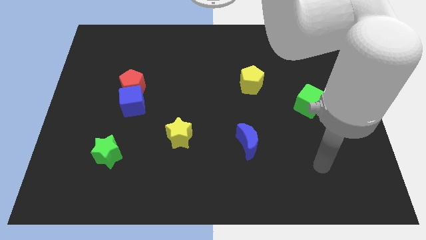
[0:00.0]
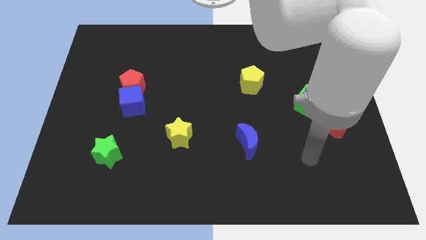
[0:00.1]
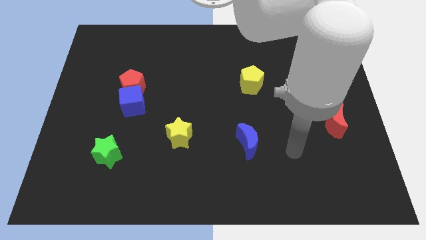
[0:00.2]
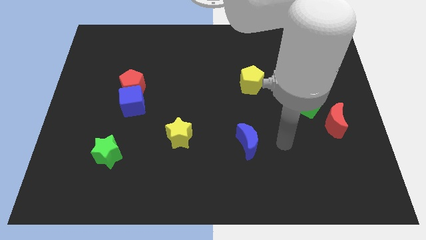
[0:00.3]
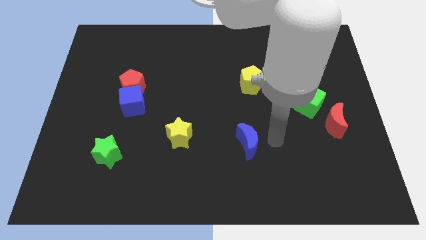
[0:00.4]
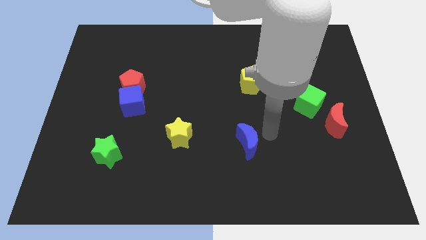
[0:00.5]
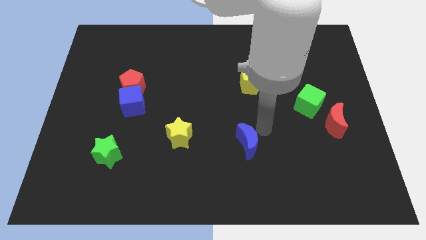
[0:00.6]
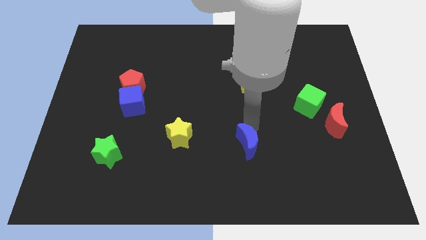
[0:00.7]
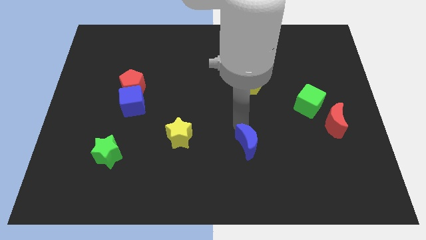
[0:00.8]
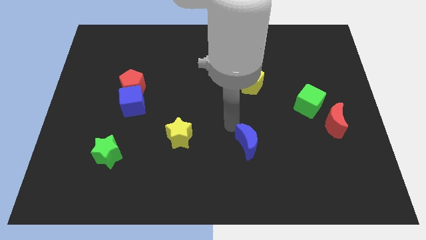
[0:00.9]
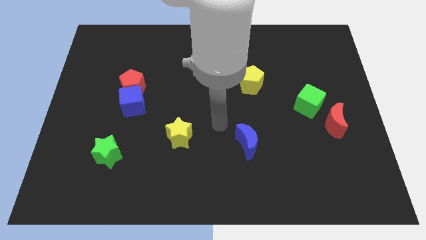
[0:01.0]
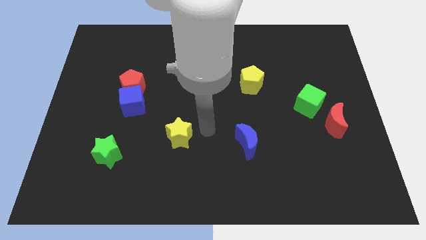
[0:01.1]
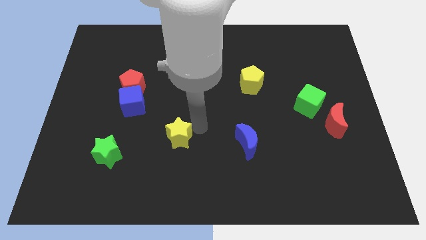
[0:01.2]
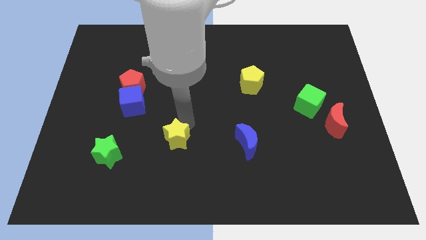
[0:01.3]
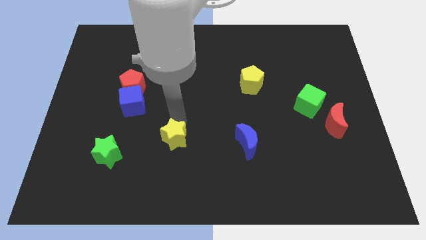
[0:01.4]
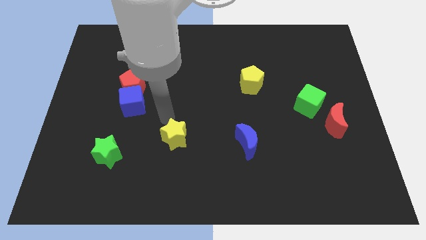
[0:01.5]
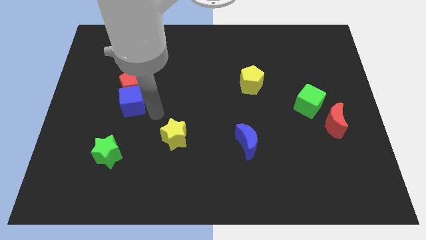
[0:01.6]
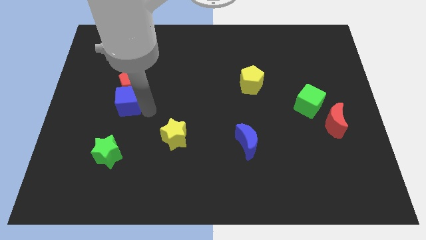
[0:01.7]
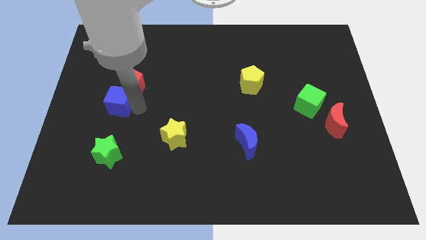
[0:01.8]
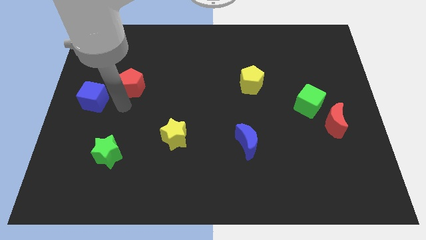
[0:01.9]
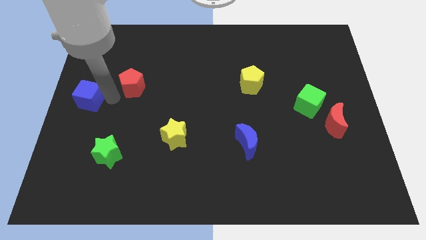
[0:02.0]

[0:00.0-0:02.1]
move the red pentagon away from the blue cube

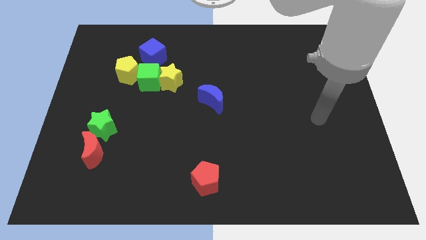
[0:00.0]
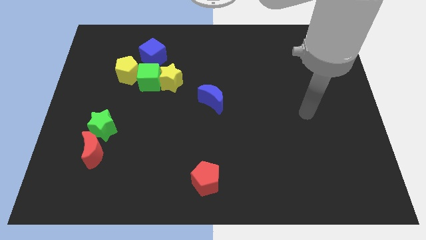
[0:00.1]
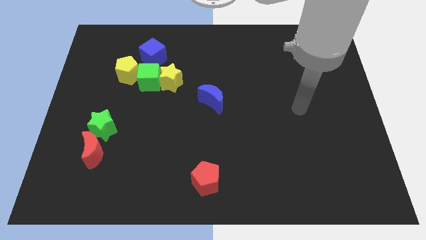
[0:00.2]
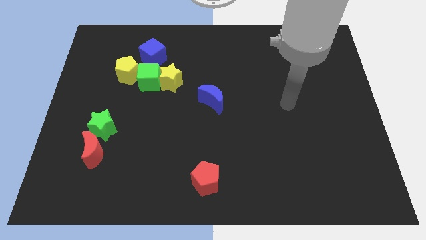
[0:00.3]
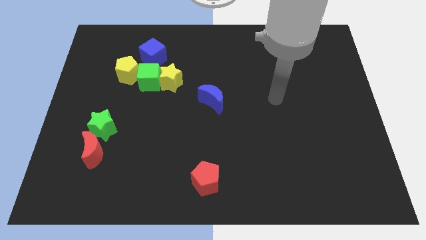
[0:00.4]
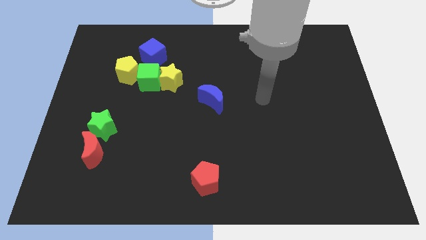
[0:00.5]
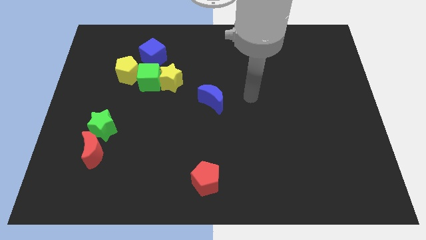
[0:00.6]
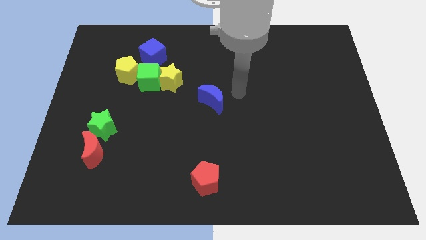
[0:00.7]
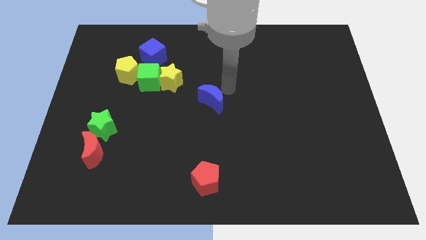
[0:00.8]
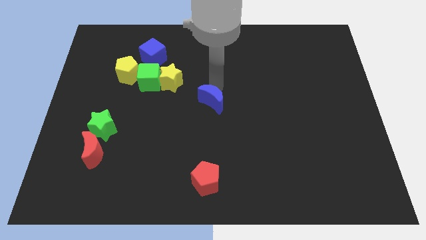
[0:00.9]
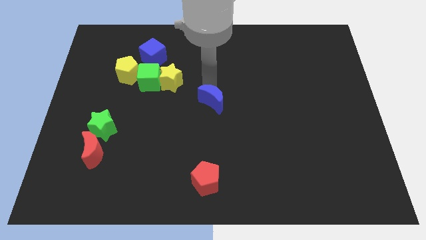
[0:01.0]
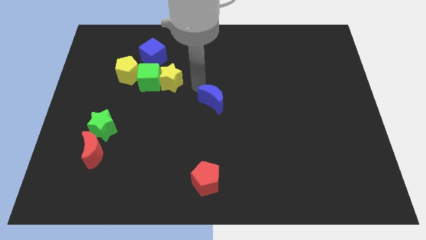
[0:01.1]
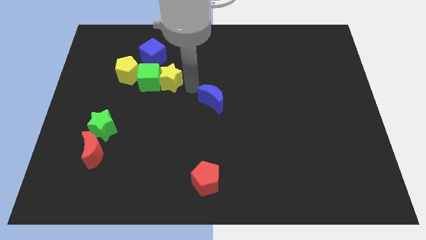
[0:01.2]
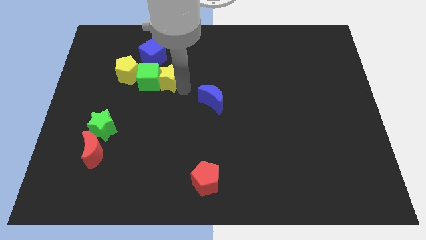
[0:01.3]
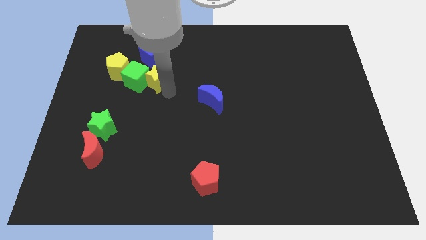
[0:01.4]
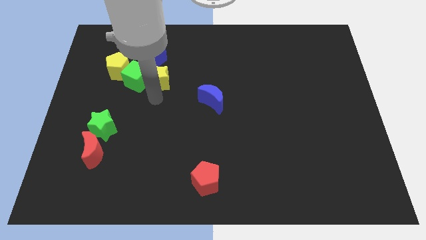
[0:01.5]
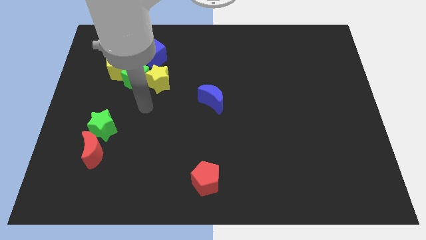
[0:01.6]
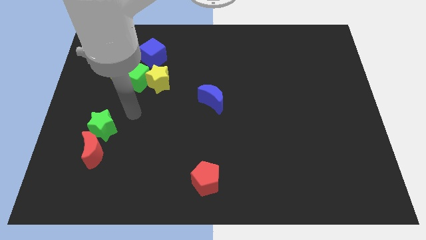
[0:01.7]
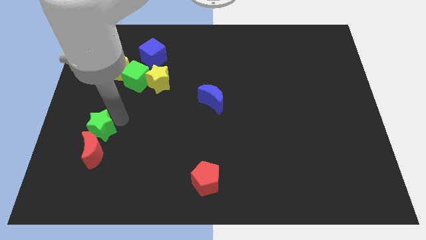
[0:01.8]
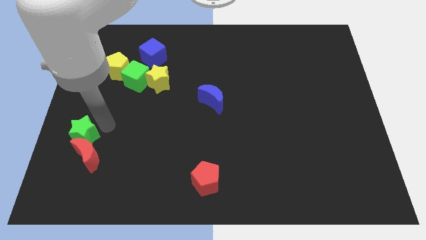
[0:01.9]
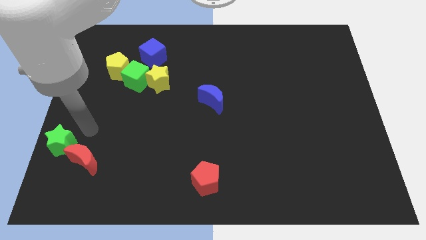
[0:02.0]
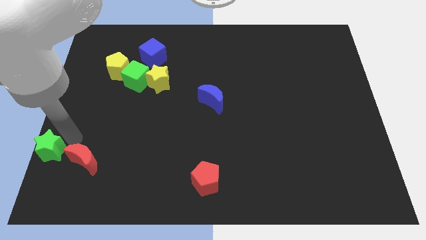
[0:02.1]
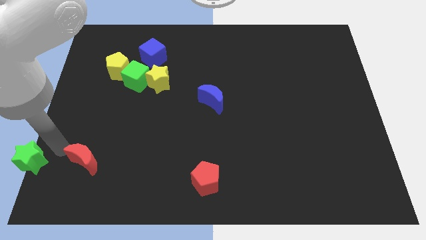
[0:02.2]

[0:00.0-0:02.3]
separate the red moon from the green star

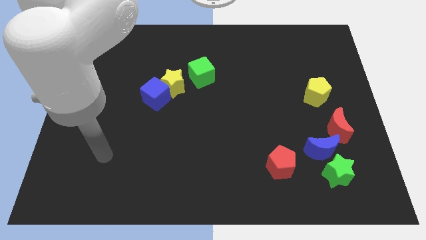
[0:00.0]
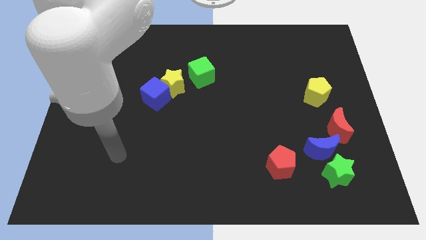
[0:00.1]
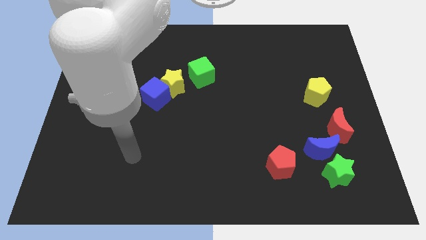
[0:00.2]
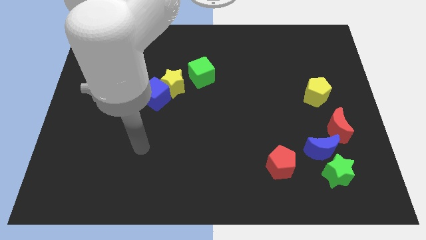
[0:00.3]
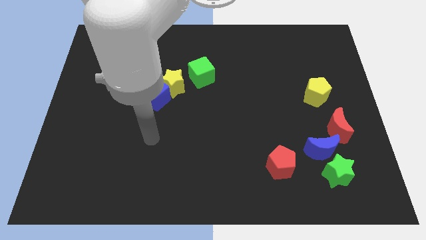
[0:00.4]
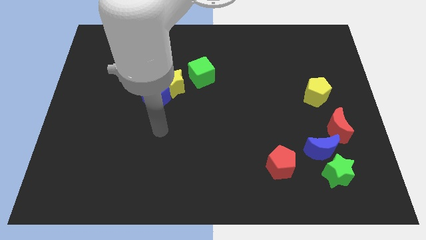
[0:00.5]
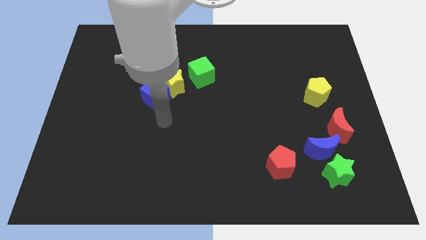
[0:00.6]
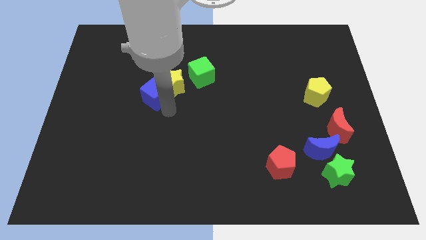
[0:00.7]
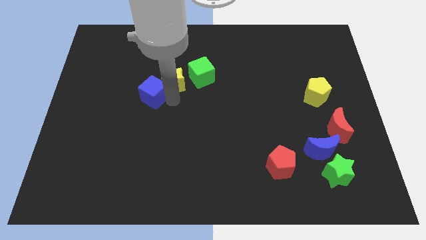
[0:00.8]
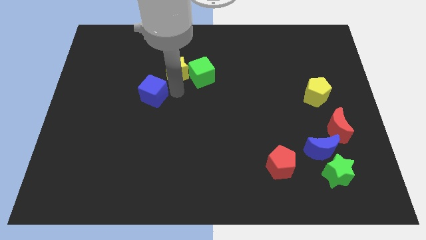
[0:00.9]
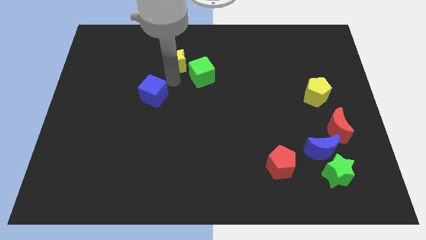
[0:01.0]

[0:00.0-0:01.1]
move the blue cube away from the yellow star

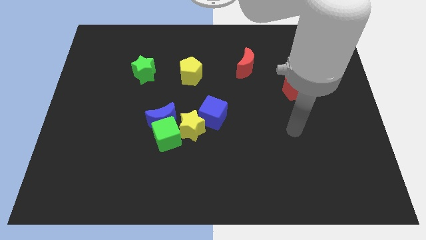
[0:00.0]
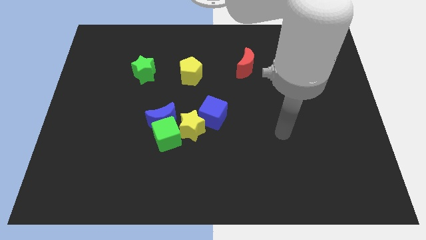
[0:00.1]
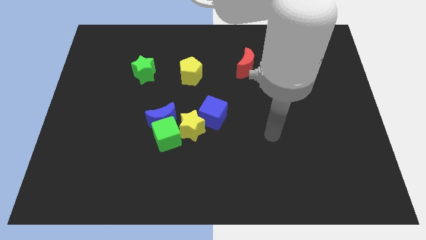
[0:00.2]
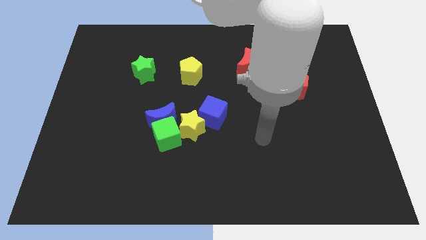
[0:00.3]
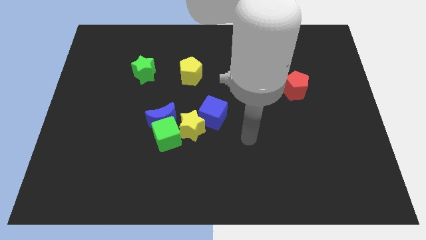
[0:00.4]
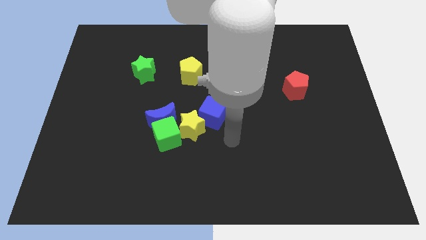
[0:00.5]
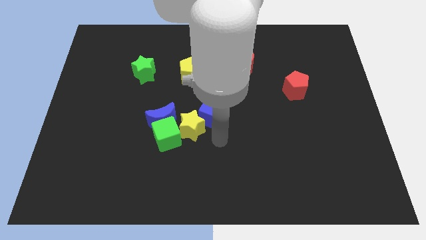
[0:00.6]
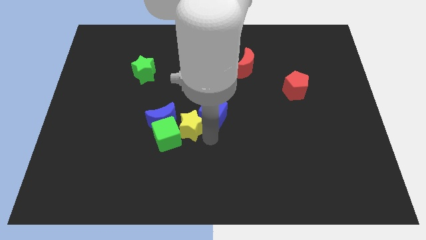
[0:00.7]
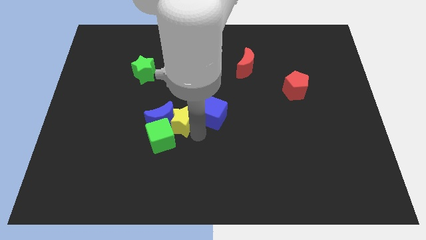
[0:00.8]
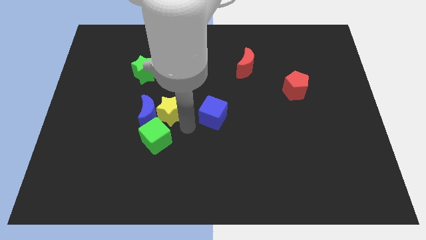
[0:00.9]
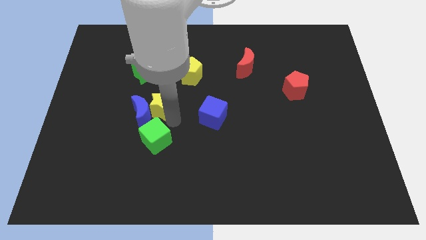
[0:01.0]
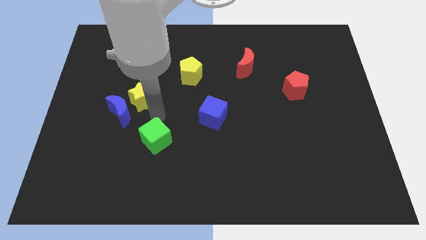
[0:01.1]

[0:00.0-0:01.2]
pull the green cube apart from the blue moon and yellow star

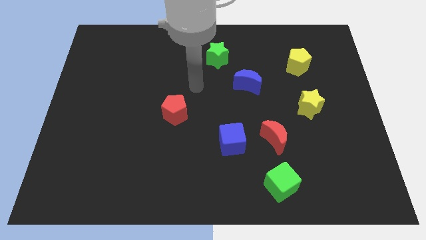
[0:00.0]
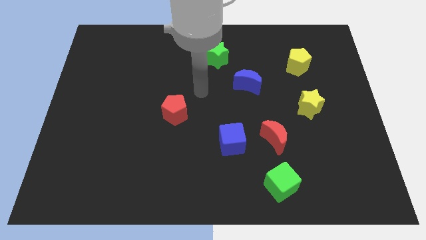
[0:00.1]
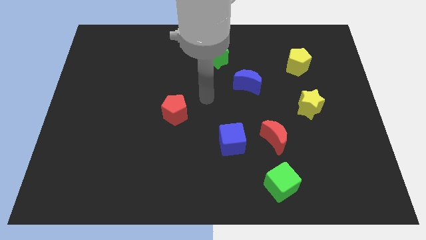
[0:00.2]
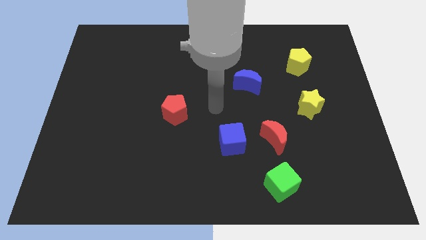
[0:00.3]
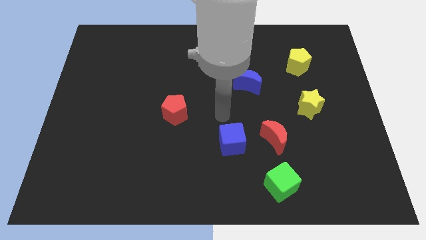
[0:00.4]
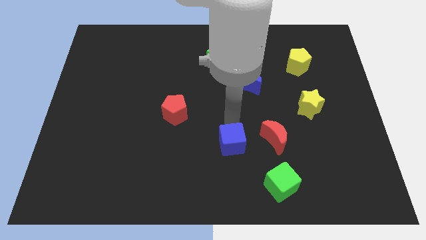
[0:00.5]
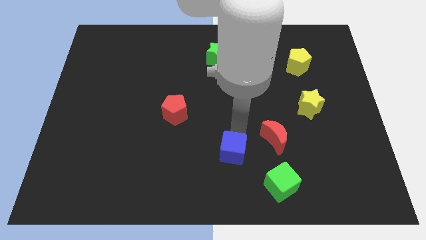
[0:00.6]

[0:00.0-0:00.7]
separate the red moon from the blue cube

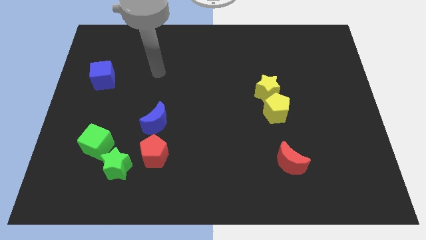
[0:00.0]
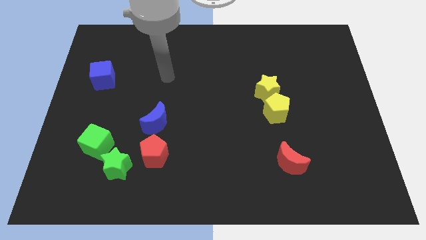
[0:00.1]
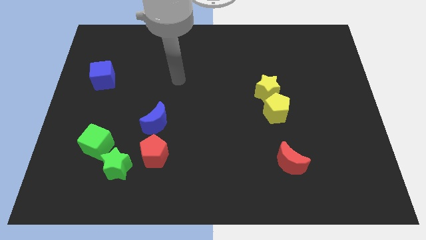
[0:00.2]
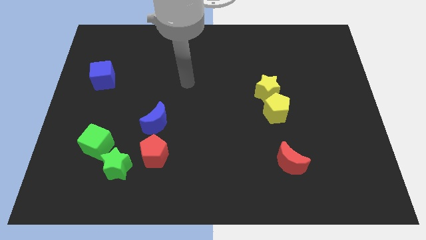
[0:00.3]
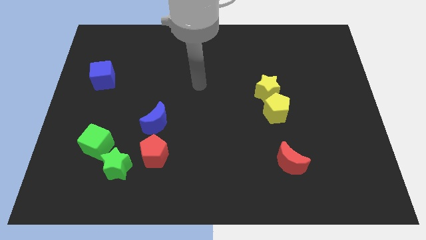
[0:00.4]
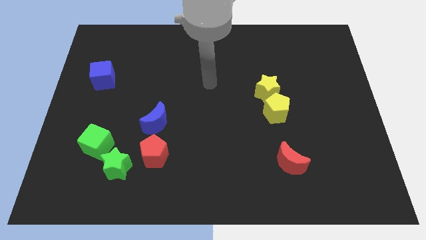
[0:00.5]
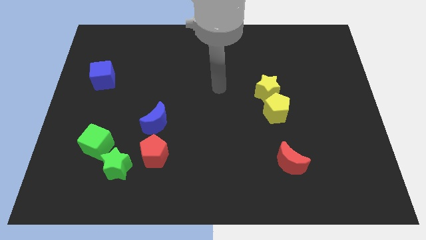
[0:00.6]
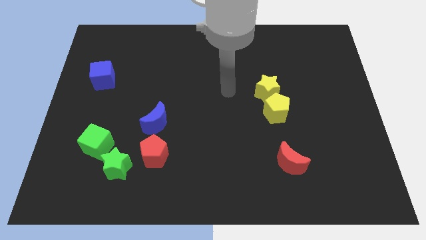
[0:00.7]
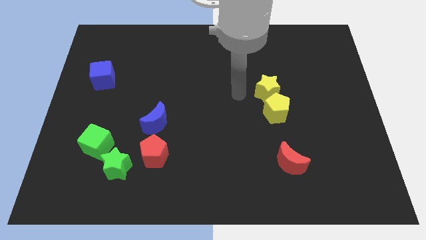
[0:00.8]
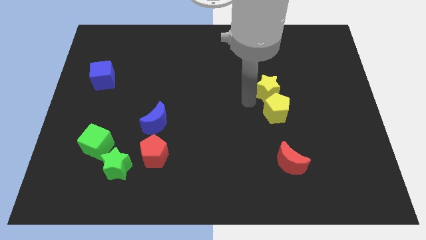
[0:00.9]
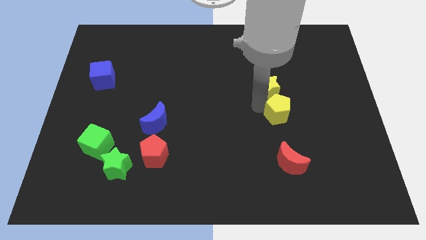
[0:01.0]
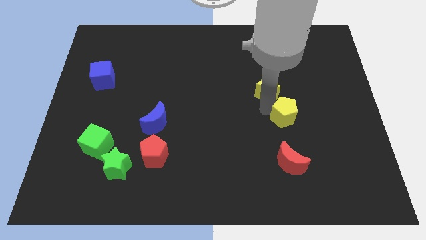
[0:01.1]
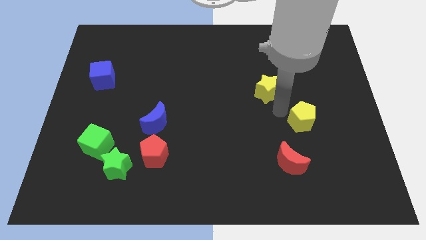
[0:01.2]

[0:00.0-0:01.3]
pull the yellow star apart from the yellow pentagon

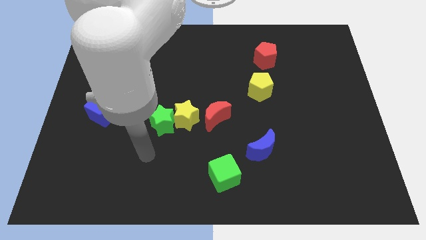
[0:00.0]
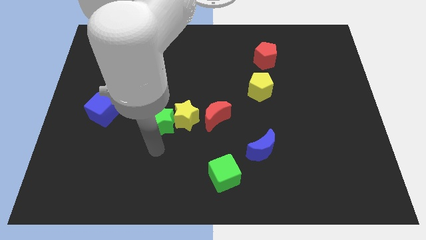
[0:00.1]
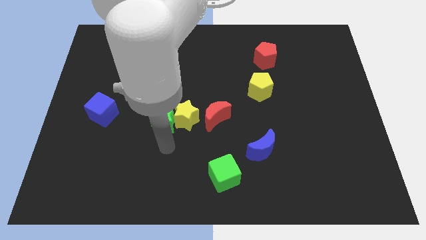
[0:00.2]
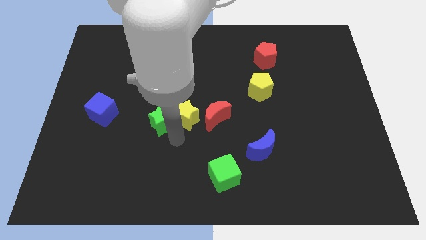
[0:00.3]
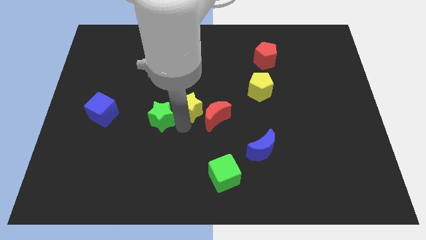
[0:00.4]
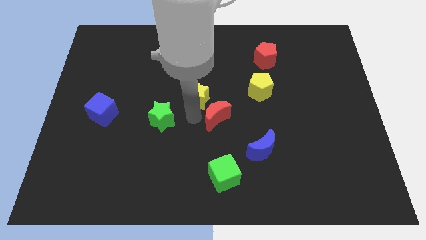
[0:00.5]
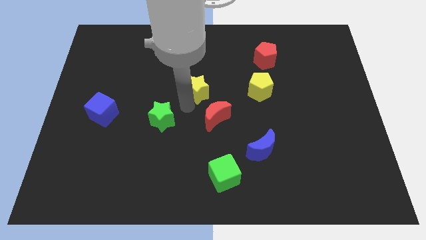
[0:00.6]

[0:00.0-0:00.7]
move the green star away from the yellow star
